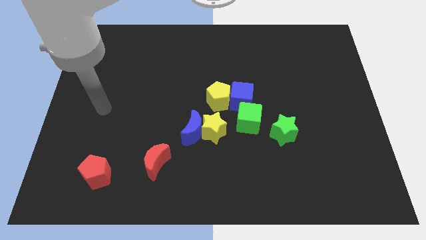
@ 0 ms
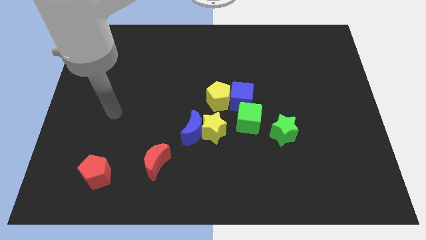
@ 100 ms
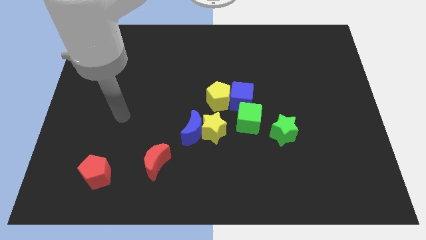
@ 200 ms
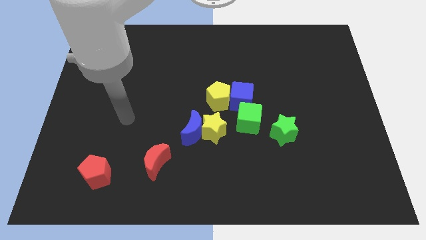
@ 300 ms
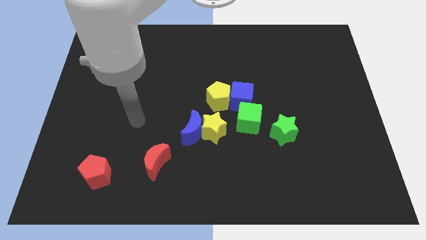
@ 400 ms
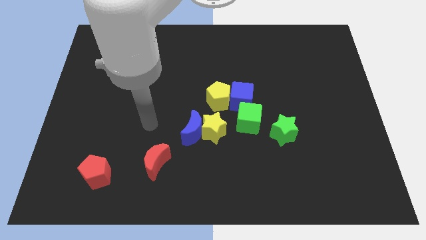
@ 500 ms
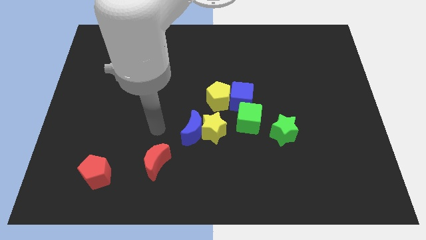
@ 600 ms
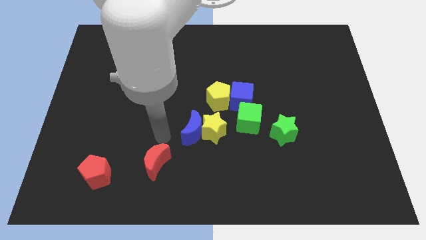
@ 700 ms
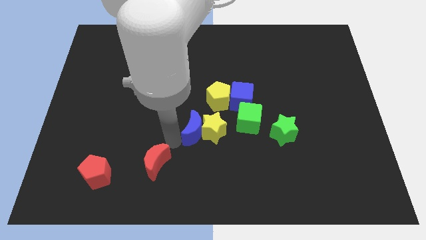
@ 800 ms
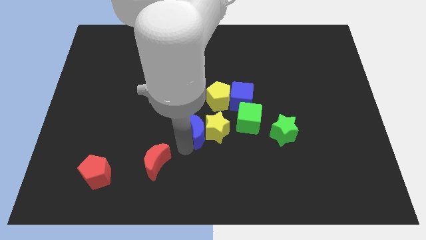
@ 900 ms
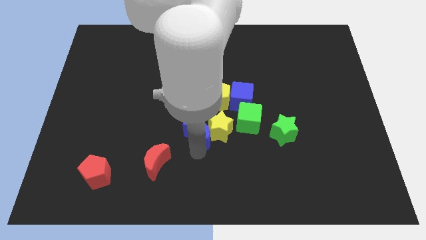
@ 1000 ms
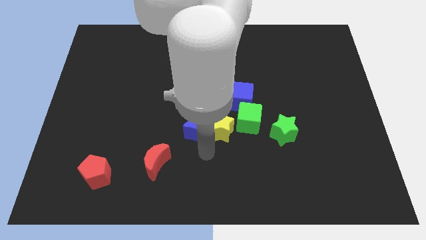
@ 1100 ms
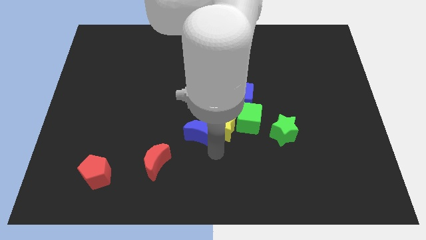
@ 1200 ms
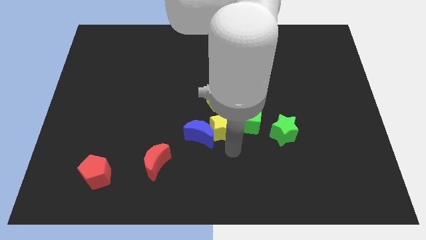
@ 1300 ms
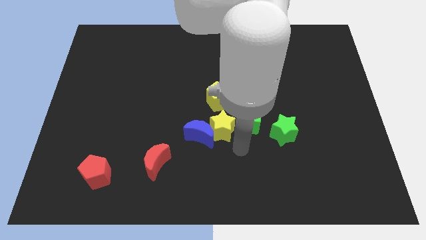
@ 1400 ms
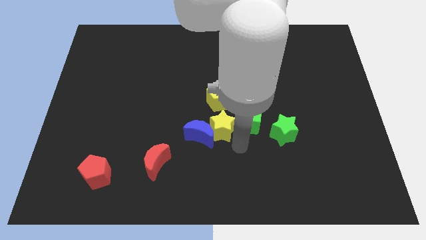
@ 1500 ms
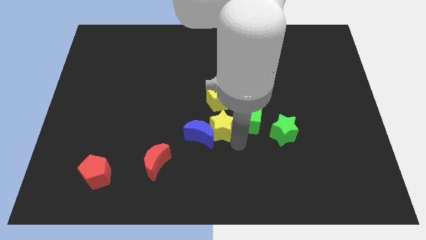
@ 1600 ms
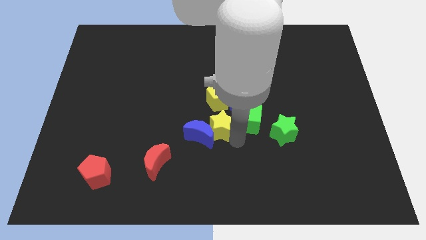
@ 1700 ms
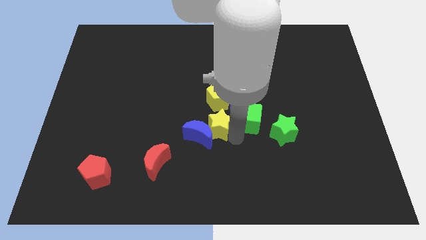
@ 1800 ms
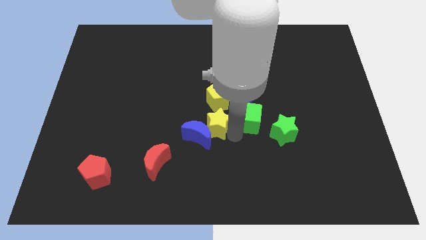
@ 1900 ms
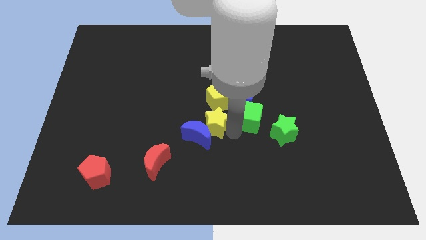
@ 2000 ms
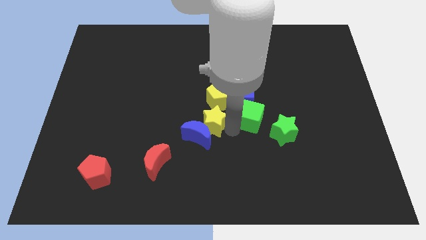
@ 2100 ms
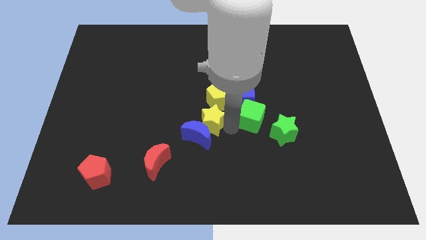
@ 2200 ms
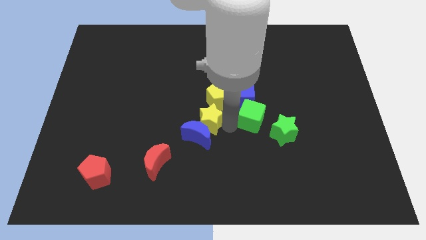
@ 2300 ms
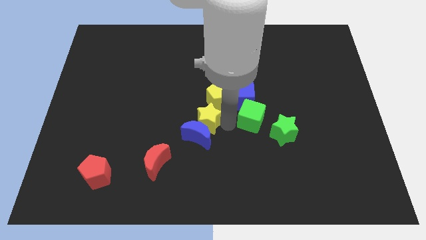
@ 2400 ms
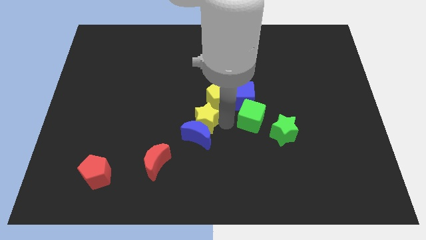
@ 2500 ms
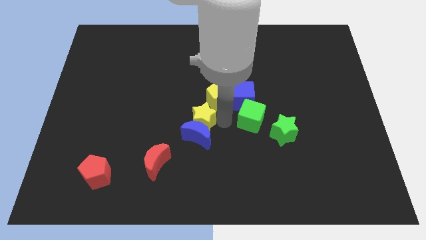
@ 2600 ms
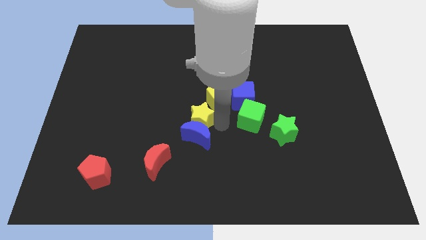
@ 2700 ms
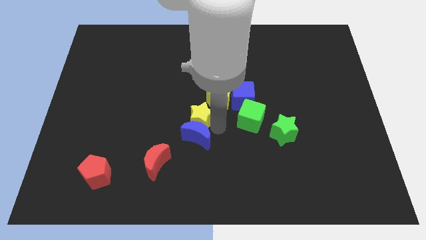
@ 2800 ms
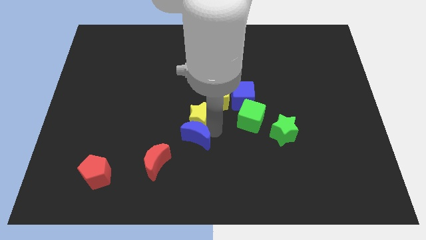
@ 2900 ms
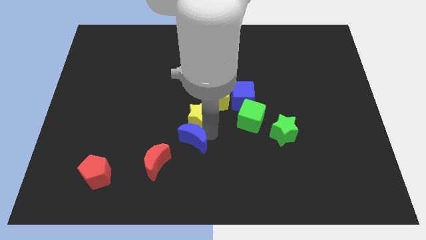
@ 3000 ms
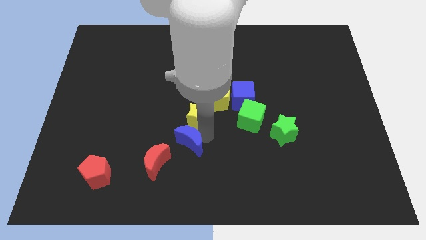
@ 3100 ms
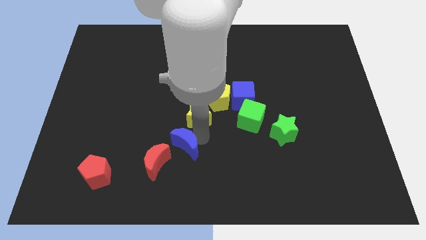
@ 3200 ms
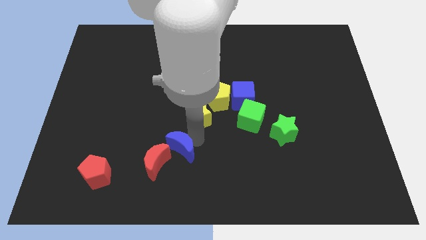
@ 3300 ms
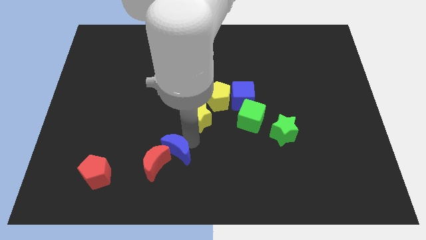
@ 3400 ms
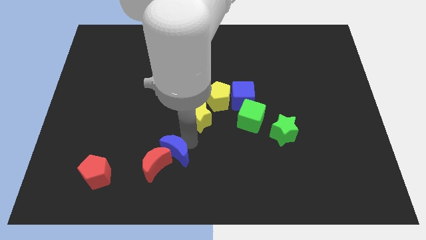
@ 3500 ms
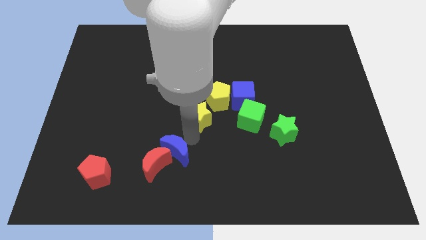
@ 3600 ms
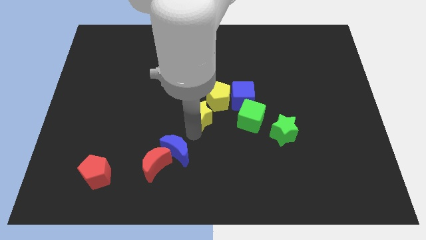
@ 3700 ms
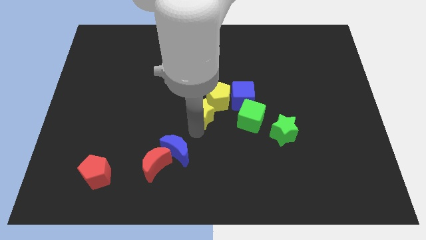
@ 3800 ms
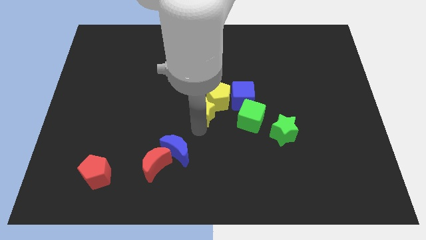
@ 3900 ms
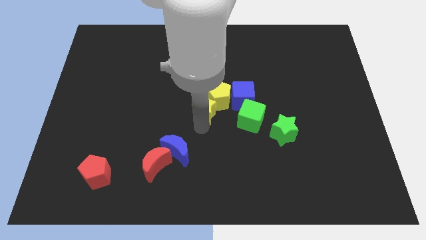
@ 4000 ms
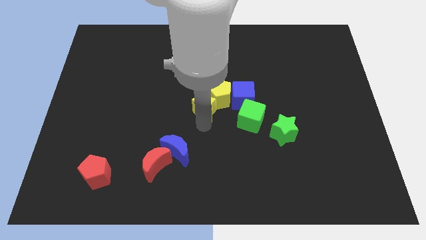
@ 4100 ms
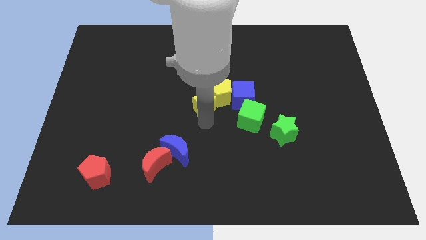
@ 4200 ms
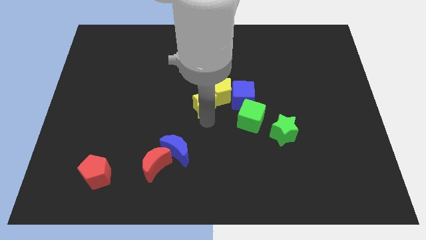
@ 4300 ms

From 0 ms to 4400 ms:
push the yellow star a bit upwards

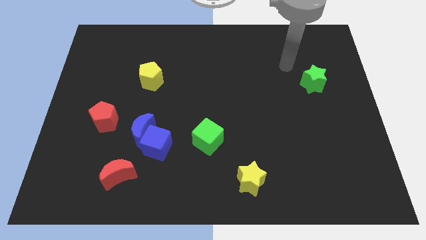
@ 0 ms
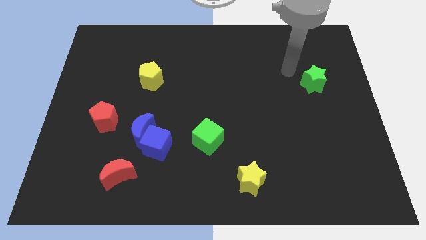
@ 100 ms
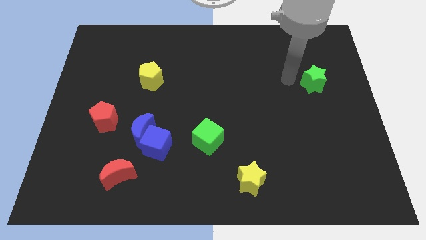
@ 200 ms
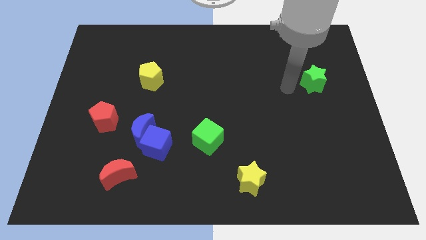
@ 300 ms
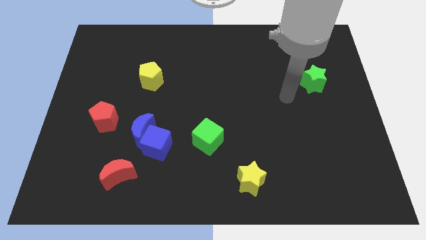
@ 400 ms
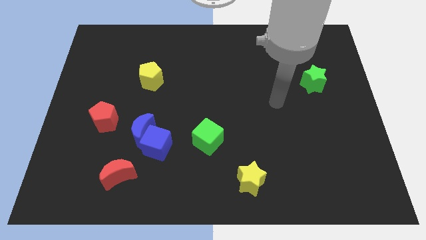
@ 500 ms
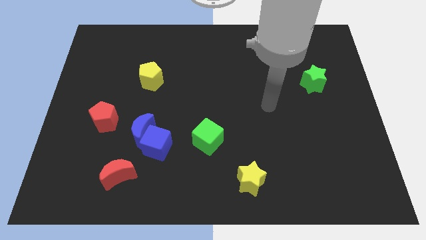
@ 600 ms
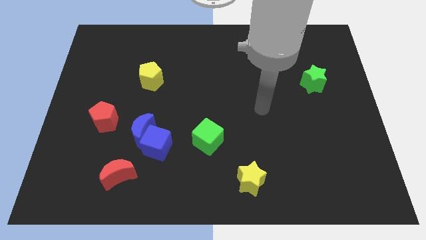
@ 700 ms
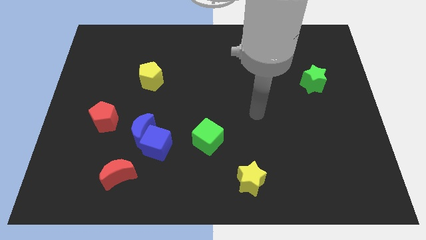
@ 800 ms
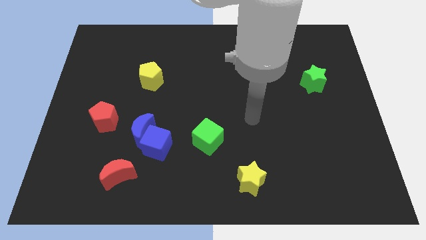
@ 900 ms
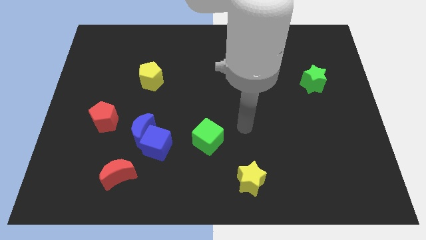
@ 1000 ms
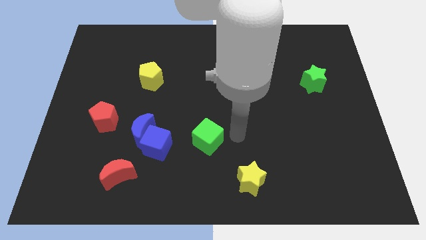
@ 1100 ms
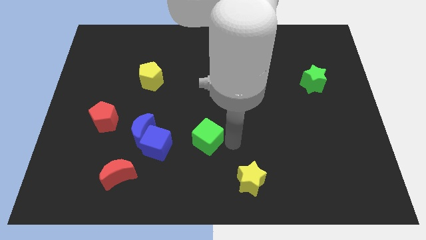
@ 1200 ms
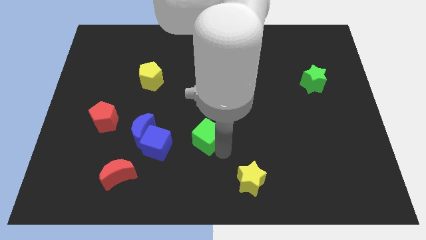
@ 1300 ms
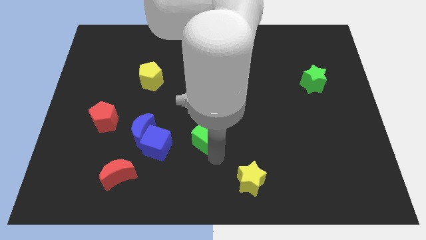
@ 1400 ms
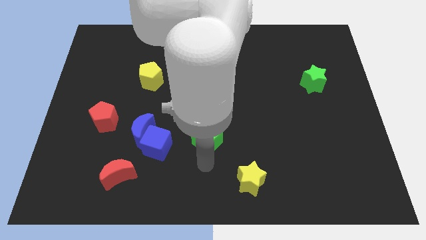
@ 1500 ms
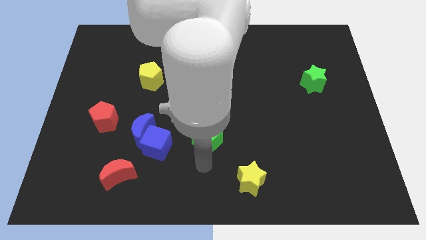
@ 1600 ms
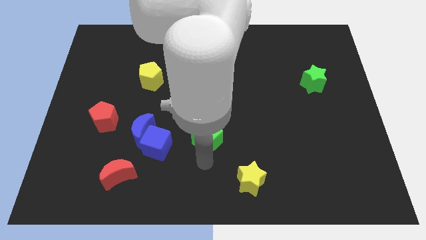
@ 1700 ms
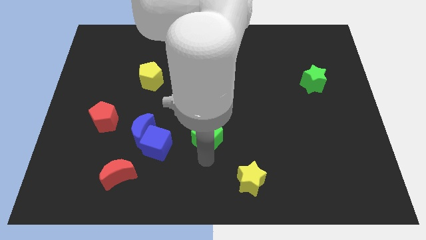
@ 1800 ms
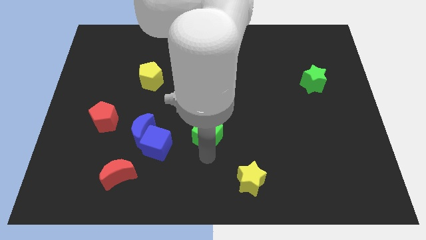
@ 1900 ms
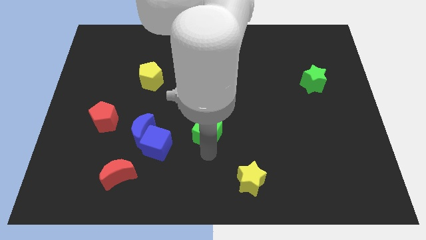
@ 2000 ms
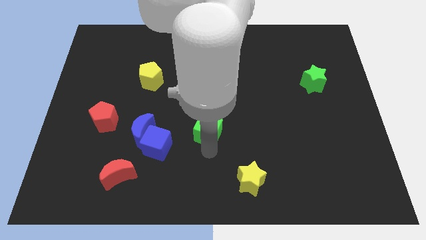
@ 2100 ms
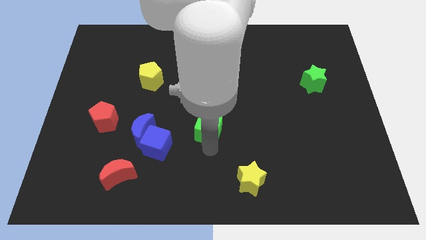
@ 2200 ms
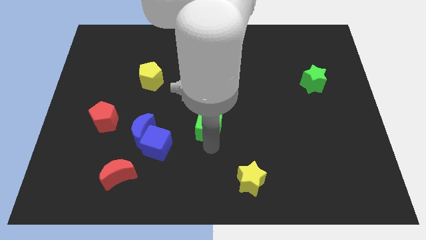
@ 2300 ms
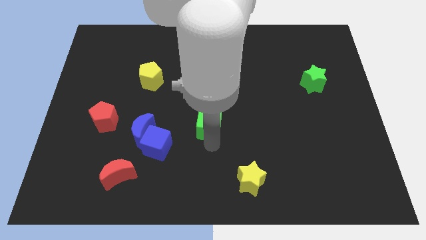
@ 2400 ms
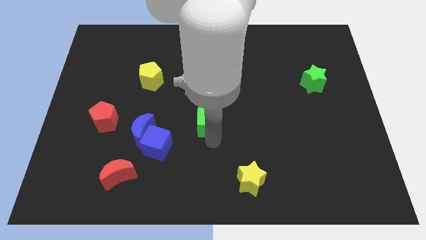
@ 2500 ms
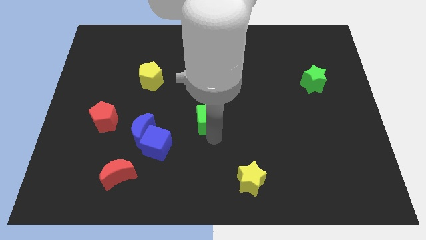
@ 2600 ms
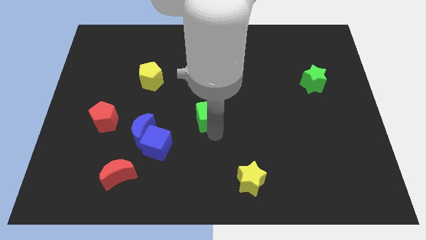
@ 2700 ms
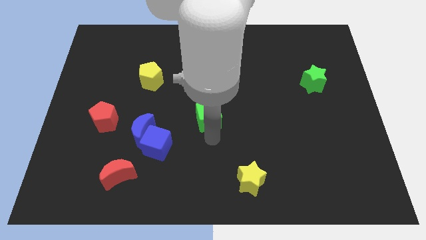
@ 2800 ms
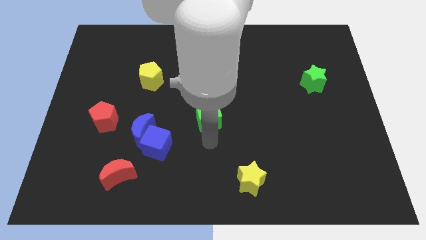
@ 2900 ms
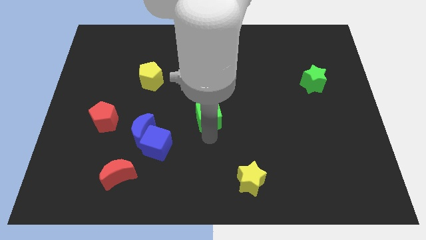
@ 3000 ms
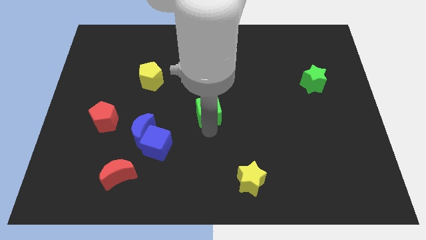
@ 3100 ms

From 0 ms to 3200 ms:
slightly move the green cube up

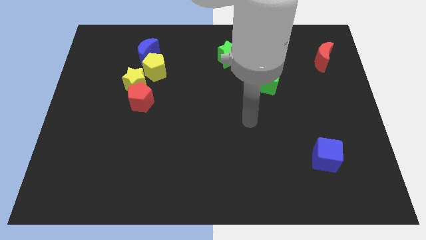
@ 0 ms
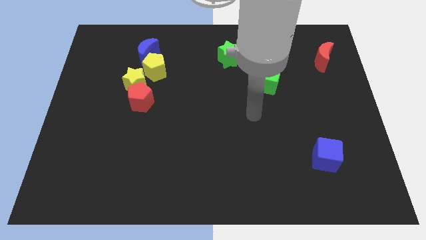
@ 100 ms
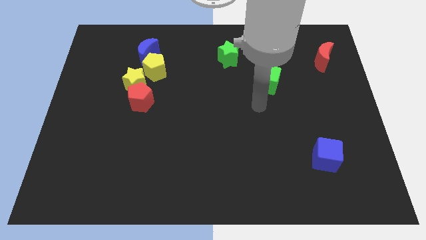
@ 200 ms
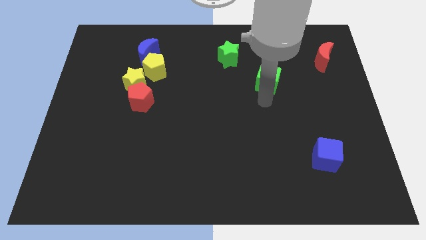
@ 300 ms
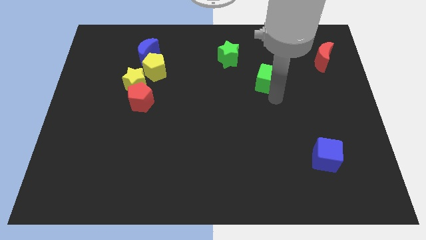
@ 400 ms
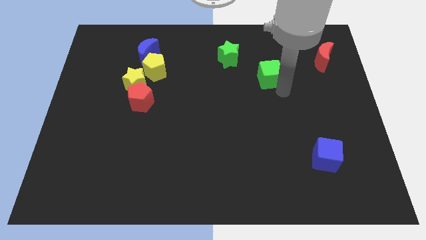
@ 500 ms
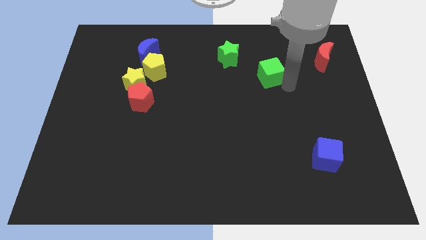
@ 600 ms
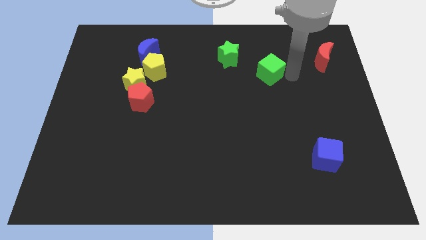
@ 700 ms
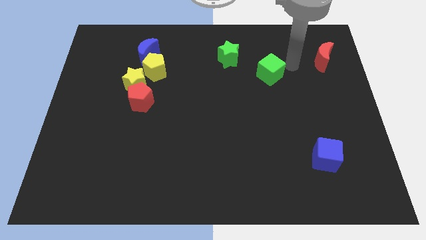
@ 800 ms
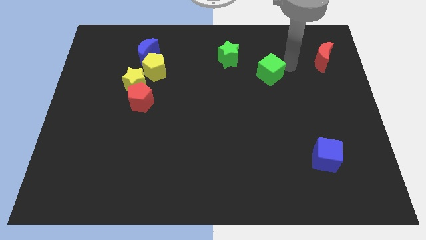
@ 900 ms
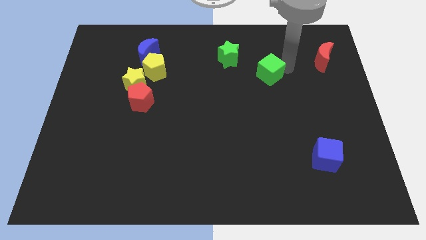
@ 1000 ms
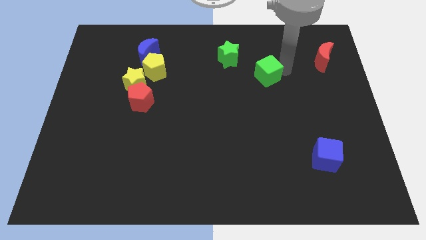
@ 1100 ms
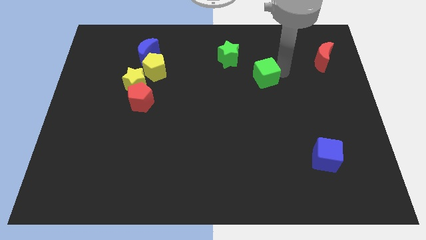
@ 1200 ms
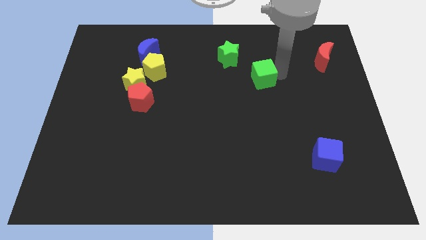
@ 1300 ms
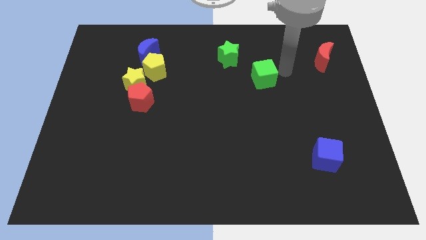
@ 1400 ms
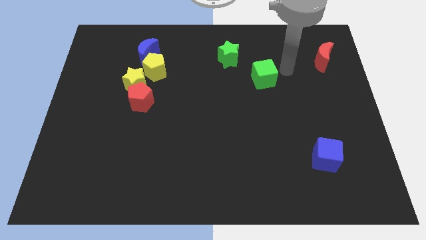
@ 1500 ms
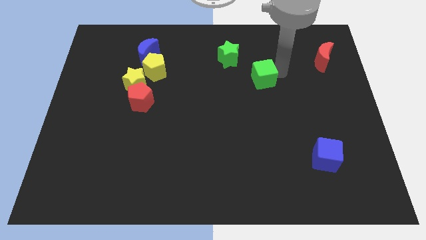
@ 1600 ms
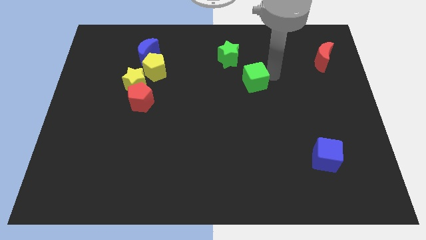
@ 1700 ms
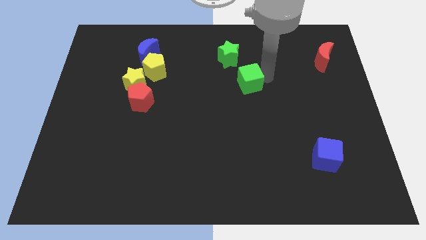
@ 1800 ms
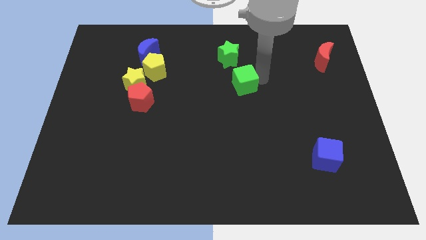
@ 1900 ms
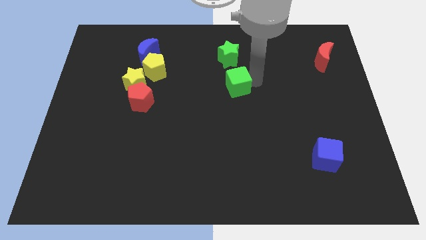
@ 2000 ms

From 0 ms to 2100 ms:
slightly push the green cube to the left
